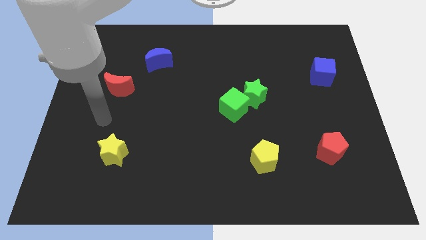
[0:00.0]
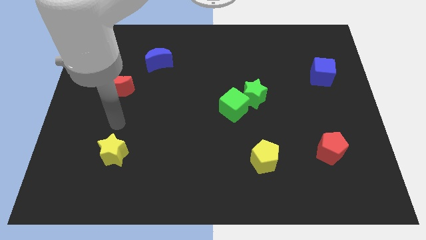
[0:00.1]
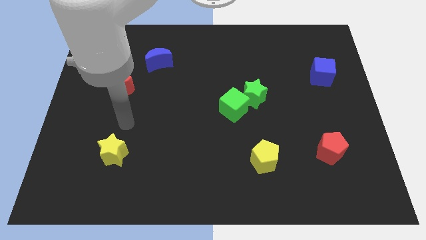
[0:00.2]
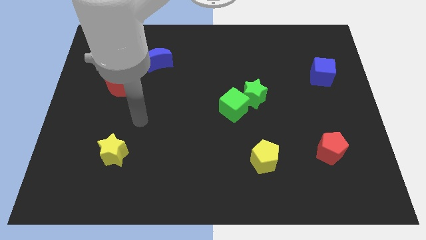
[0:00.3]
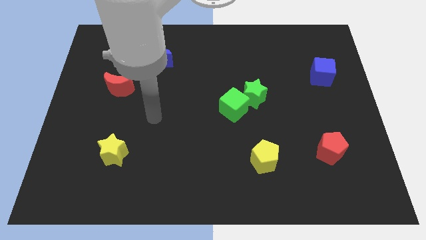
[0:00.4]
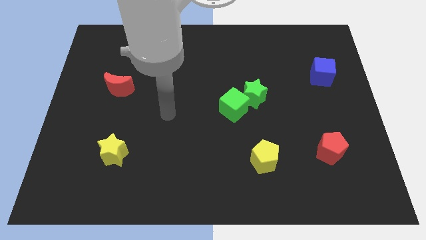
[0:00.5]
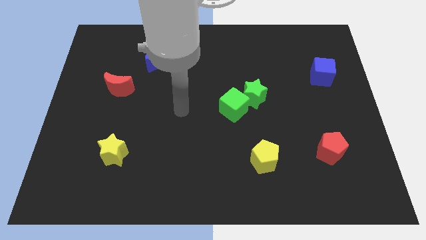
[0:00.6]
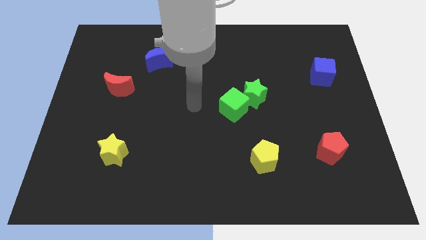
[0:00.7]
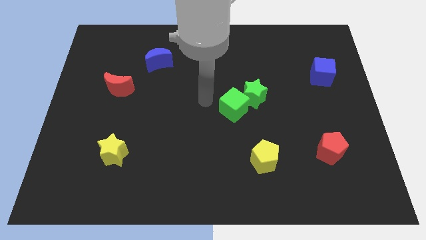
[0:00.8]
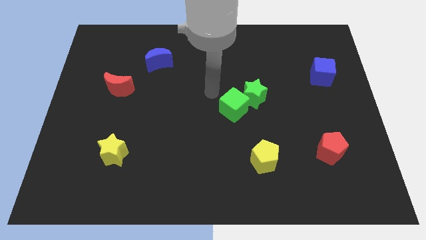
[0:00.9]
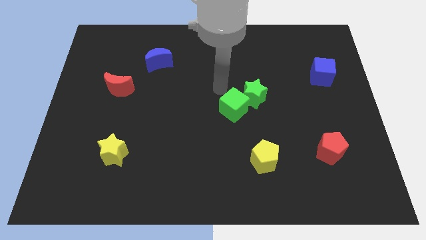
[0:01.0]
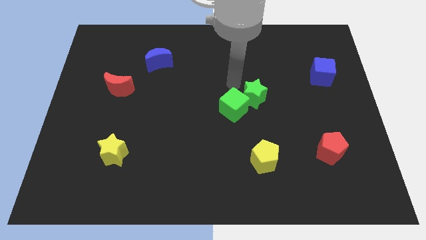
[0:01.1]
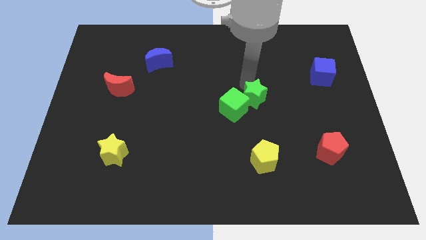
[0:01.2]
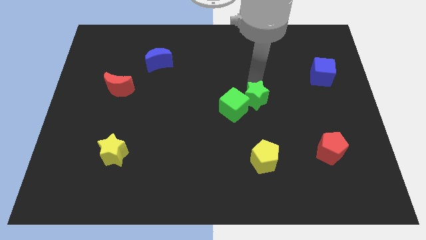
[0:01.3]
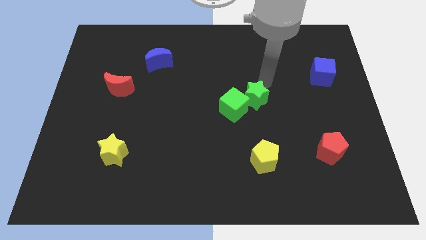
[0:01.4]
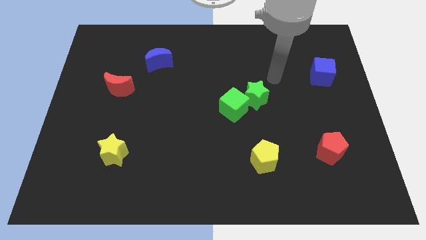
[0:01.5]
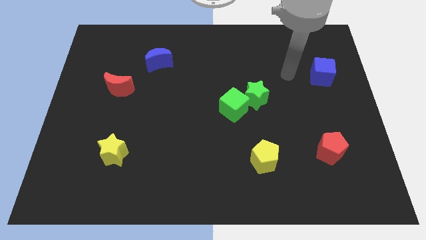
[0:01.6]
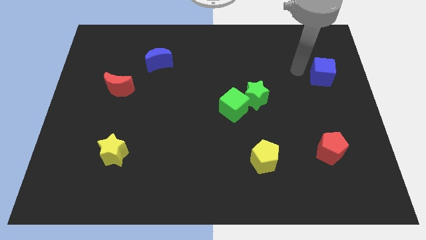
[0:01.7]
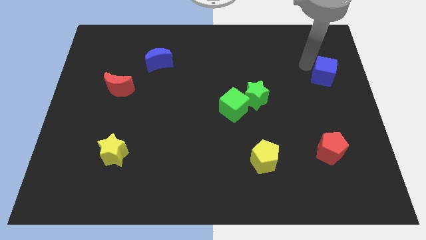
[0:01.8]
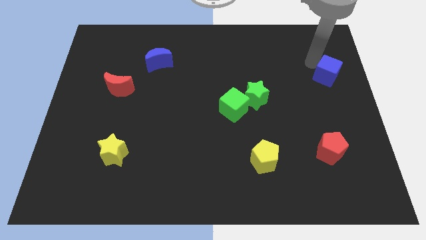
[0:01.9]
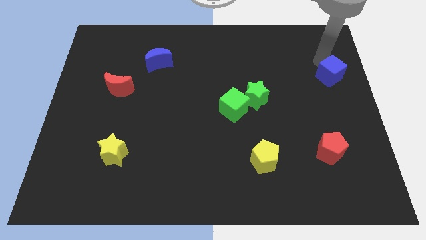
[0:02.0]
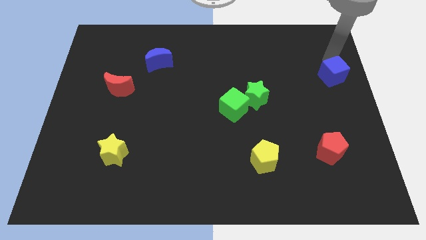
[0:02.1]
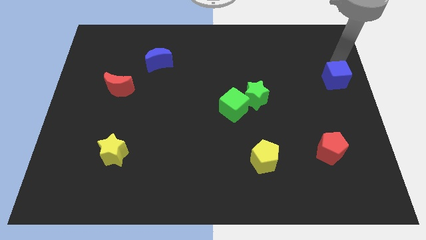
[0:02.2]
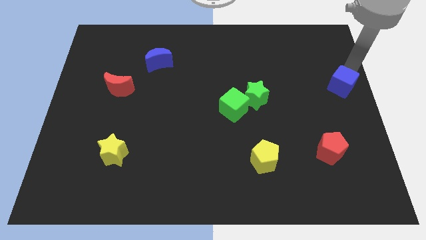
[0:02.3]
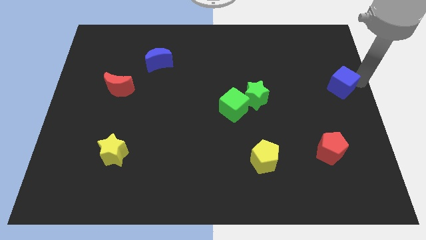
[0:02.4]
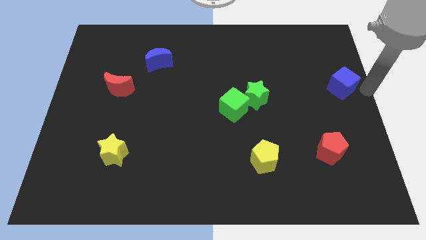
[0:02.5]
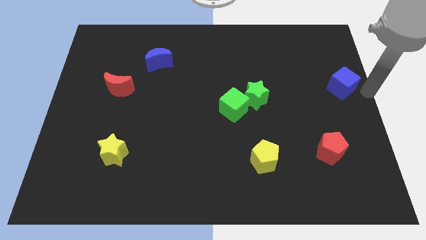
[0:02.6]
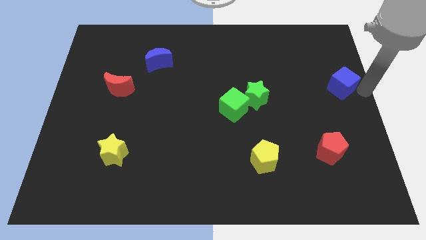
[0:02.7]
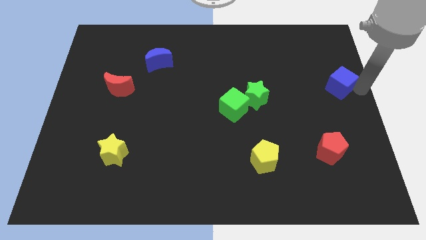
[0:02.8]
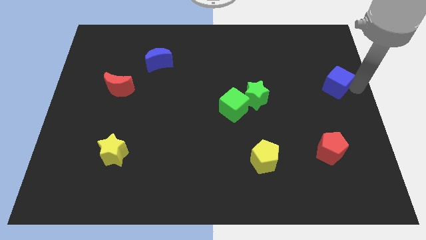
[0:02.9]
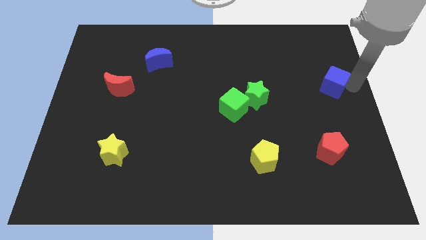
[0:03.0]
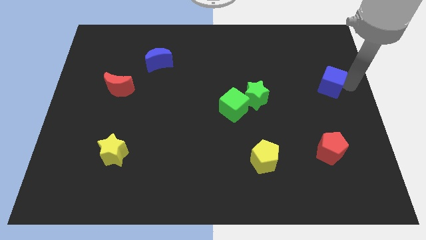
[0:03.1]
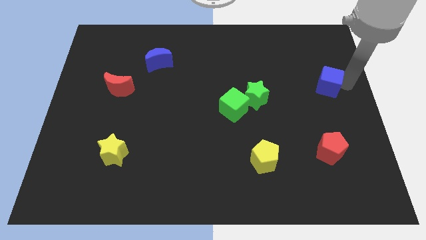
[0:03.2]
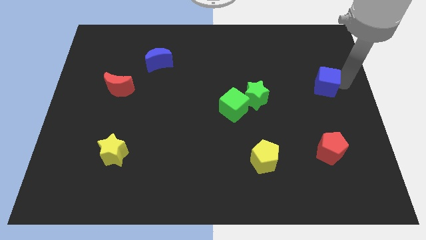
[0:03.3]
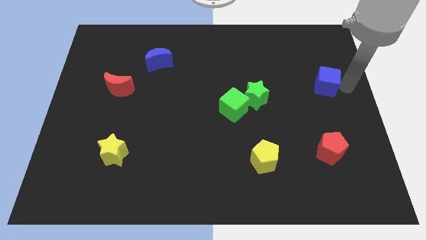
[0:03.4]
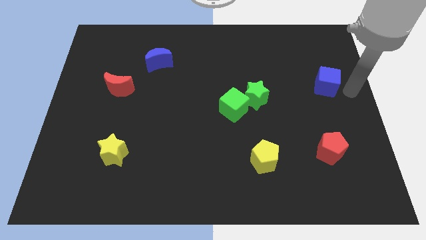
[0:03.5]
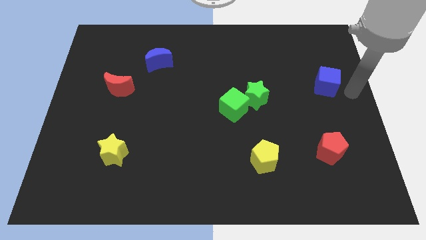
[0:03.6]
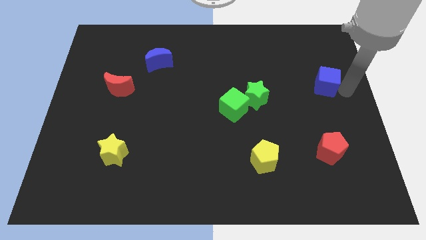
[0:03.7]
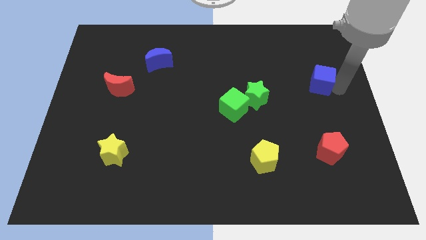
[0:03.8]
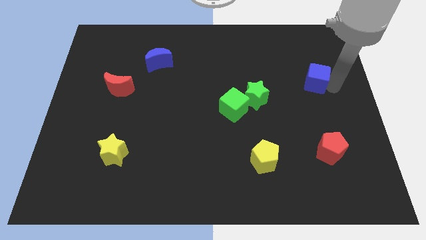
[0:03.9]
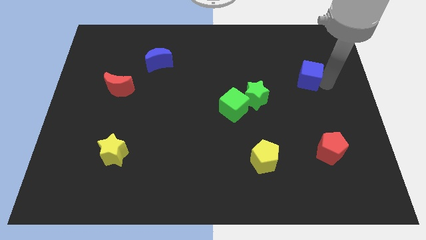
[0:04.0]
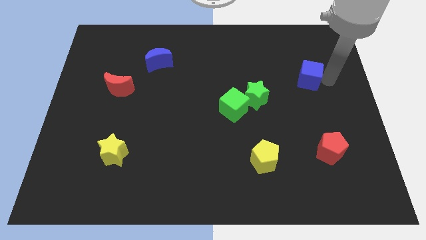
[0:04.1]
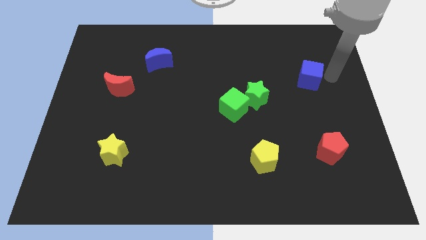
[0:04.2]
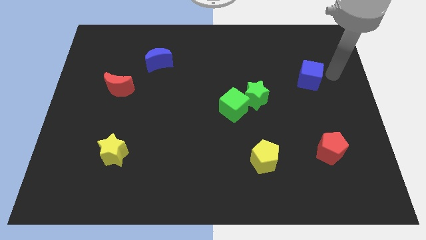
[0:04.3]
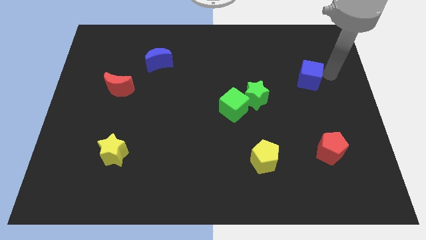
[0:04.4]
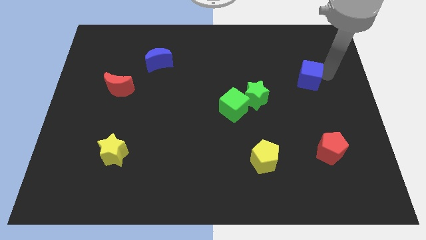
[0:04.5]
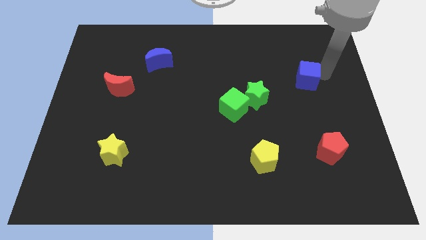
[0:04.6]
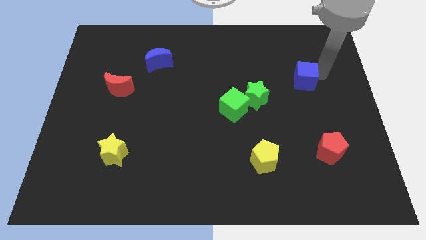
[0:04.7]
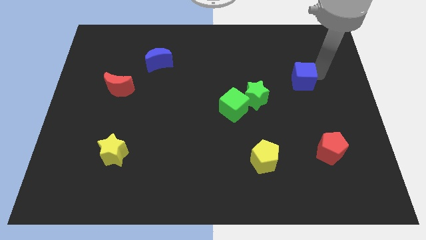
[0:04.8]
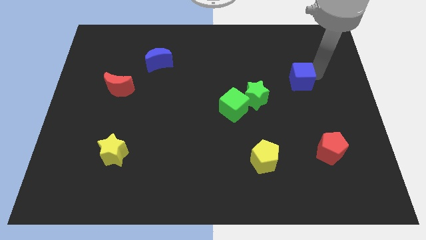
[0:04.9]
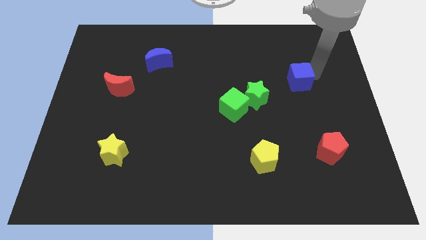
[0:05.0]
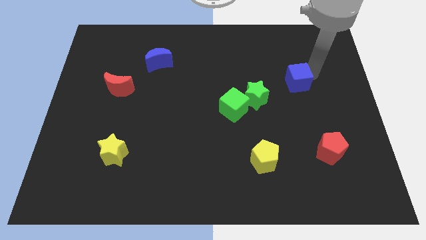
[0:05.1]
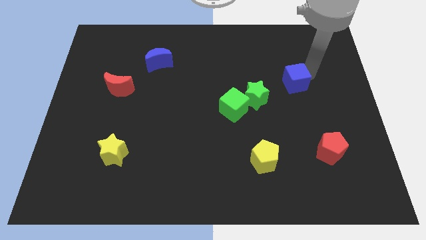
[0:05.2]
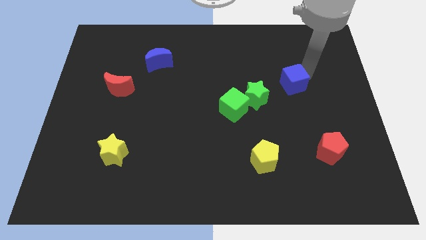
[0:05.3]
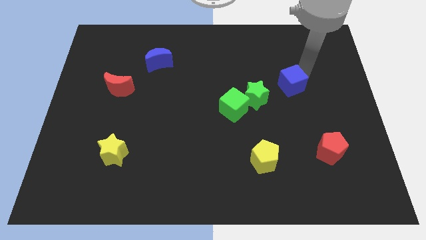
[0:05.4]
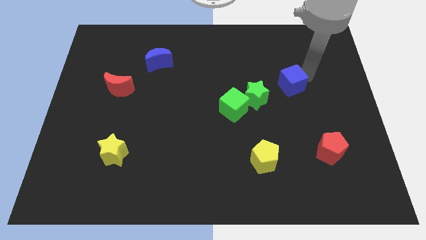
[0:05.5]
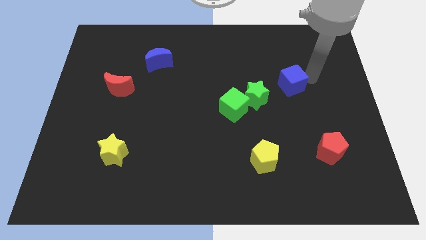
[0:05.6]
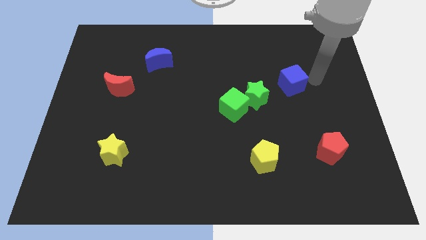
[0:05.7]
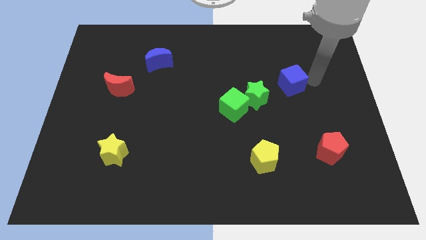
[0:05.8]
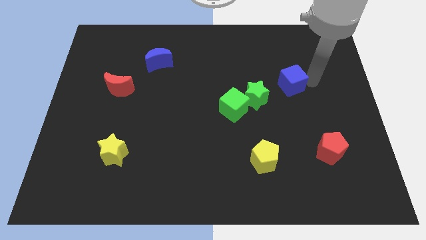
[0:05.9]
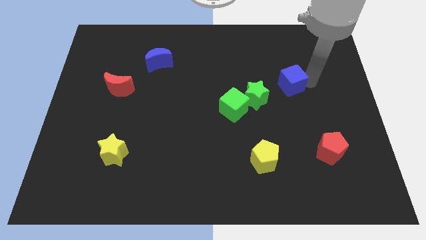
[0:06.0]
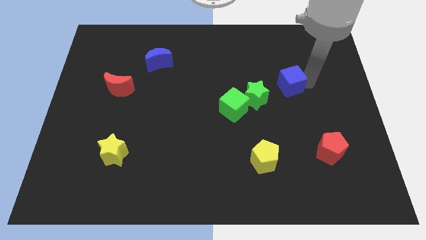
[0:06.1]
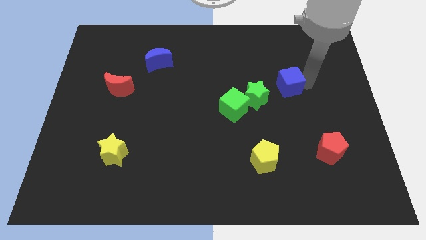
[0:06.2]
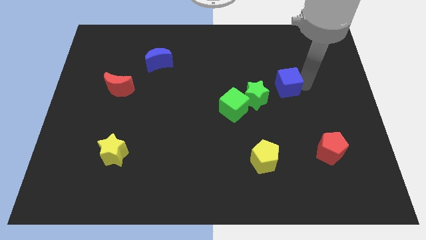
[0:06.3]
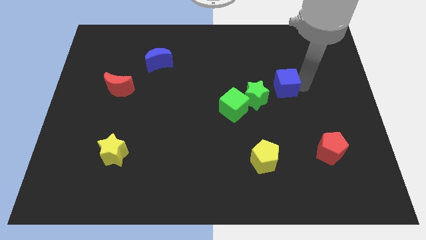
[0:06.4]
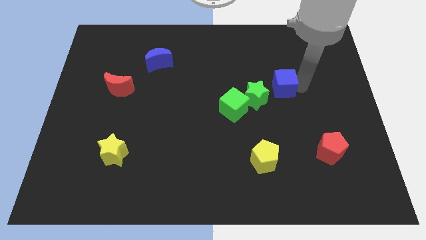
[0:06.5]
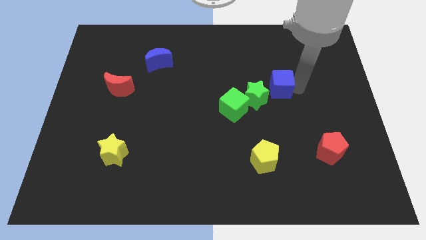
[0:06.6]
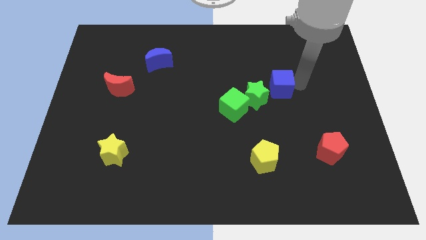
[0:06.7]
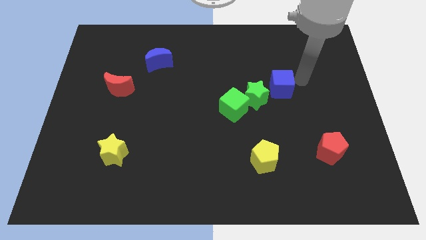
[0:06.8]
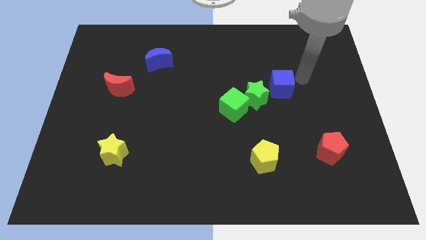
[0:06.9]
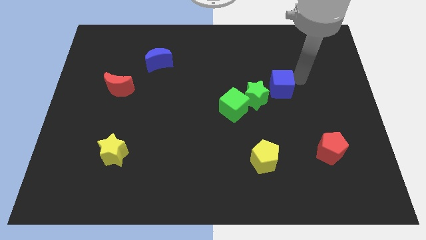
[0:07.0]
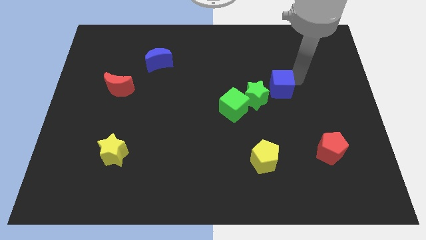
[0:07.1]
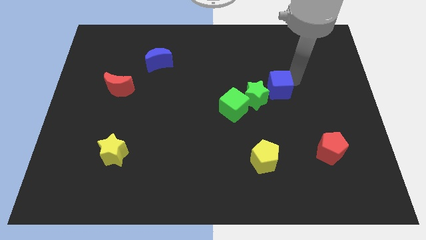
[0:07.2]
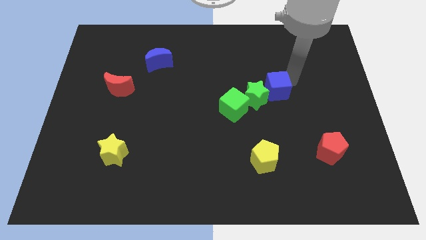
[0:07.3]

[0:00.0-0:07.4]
push the blue cube close to the green star
